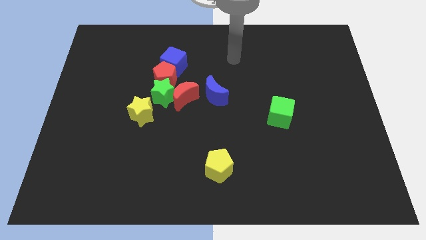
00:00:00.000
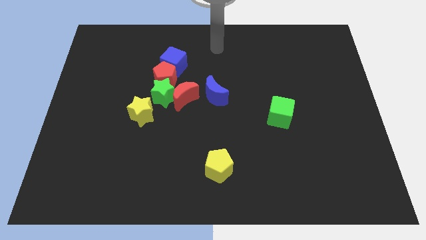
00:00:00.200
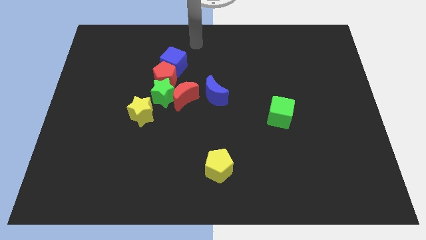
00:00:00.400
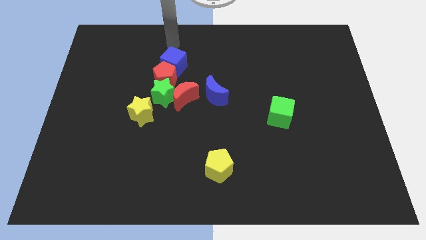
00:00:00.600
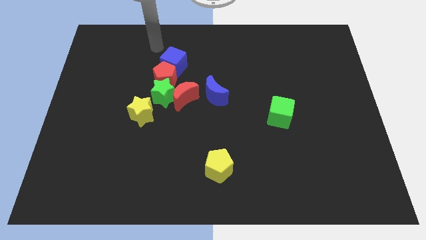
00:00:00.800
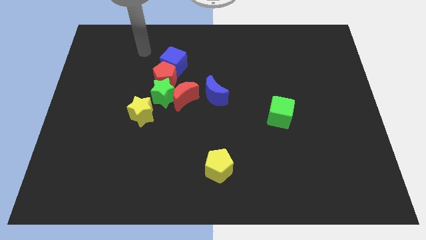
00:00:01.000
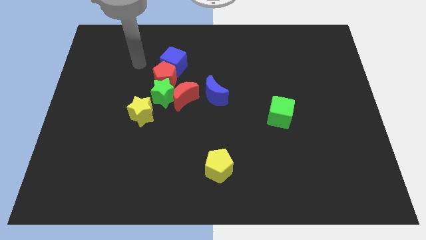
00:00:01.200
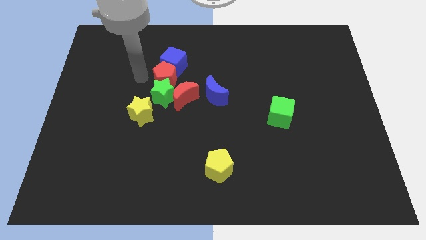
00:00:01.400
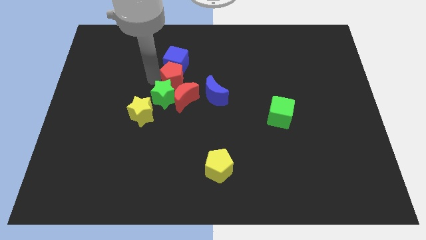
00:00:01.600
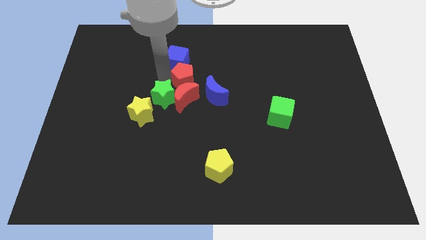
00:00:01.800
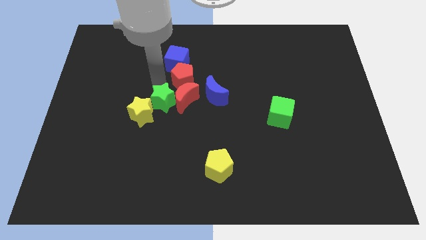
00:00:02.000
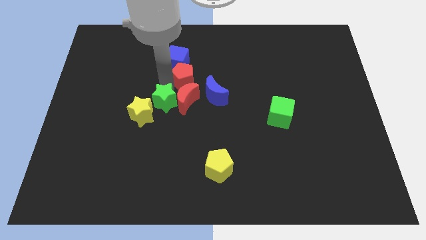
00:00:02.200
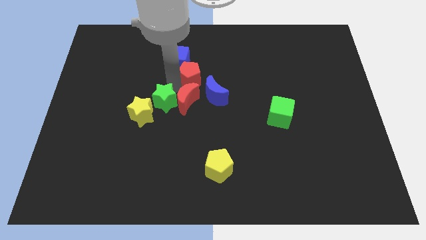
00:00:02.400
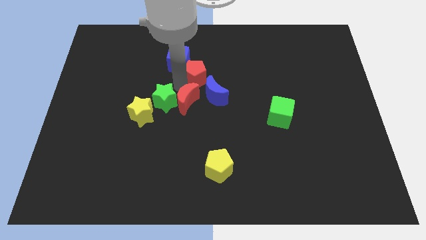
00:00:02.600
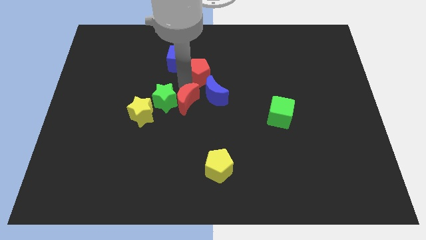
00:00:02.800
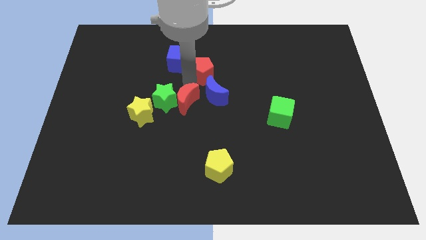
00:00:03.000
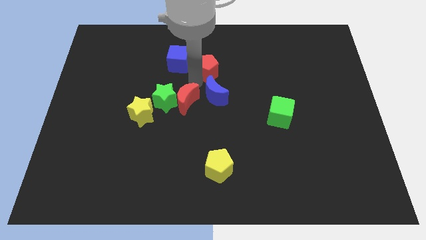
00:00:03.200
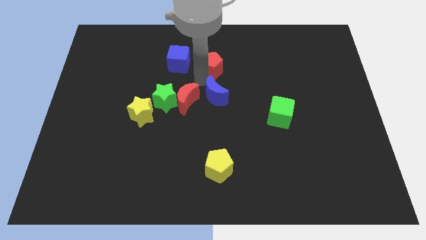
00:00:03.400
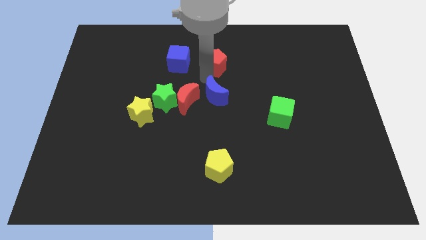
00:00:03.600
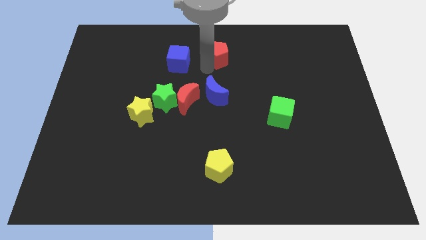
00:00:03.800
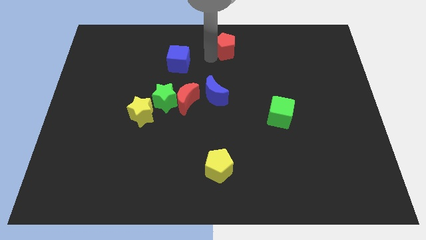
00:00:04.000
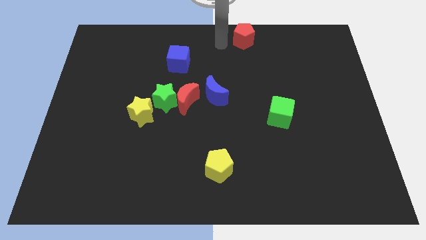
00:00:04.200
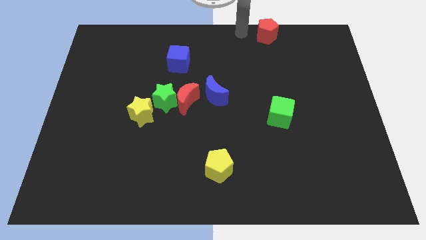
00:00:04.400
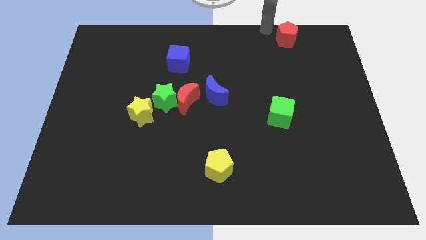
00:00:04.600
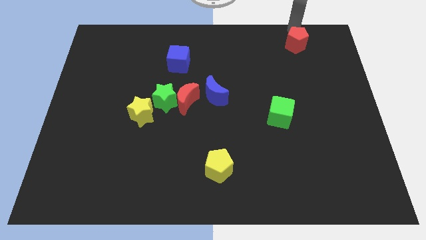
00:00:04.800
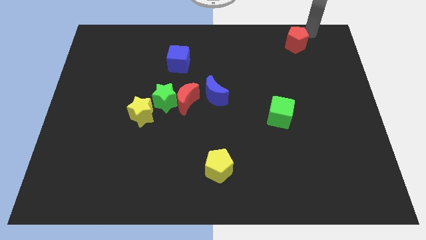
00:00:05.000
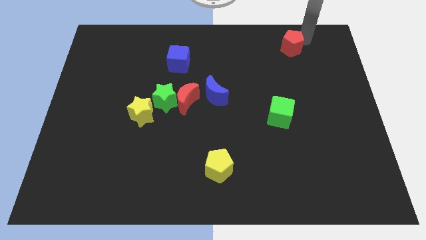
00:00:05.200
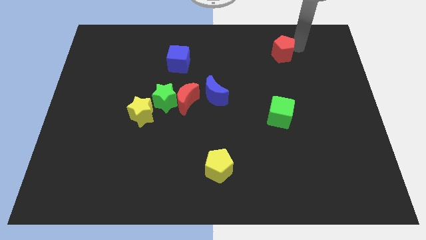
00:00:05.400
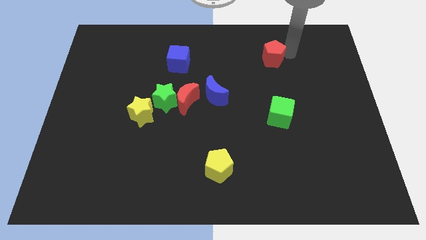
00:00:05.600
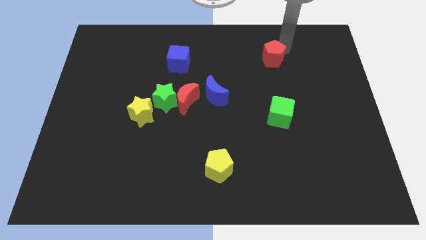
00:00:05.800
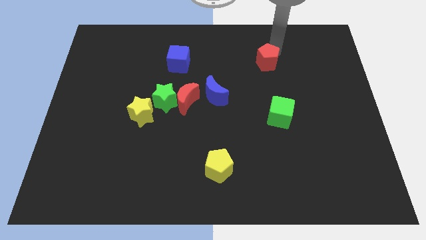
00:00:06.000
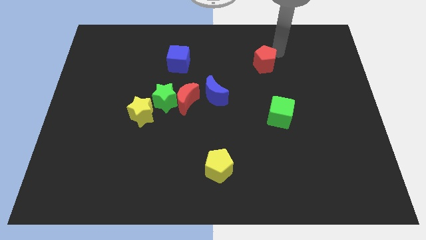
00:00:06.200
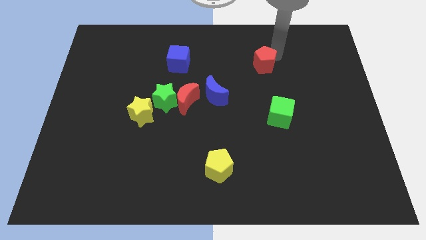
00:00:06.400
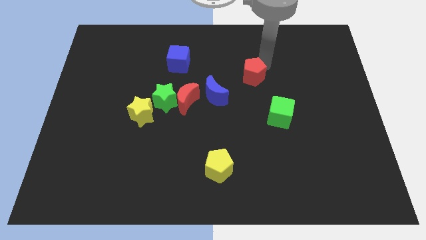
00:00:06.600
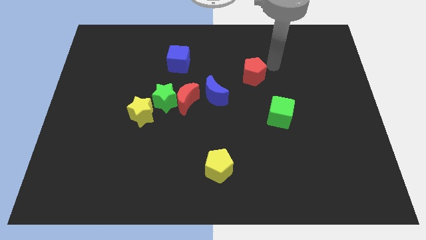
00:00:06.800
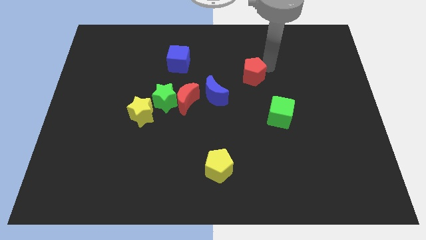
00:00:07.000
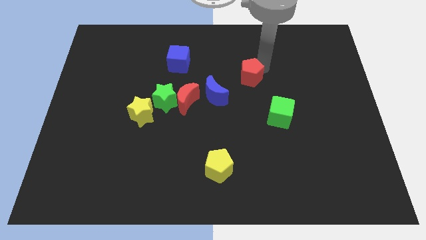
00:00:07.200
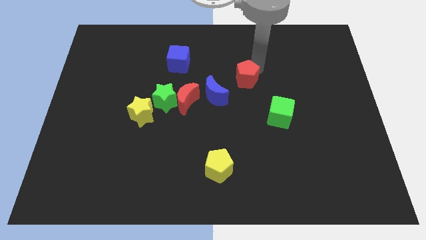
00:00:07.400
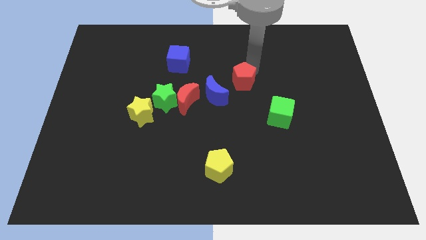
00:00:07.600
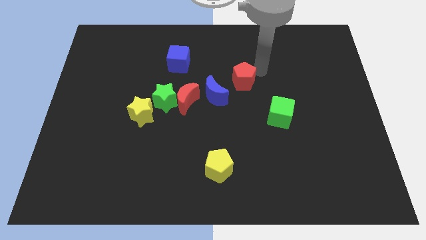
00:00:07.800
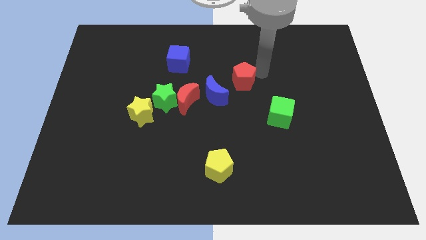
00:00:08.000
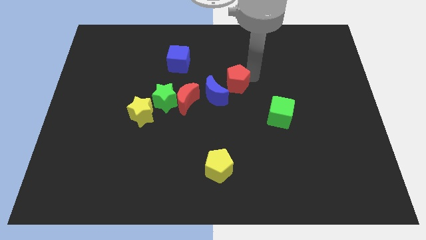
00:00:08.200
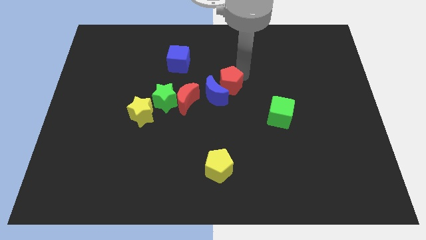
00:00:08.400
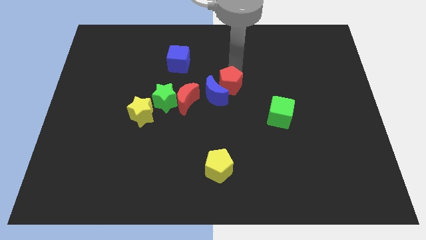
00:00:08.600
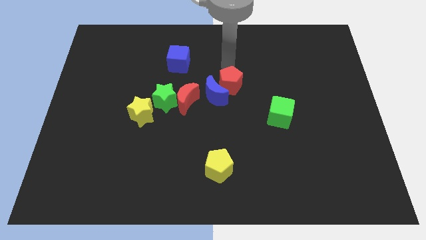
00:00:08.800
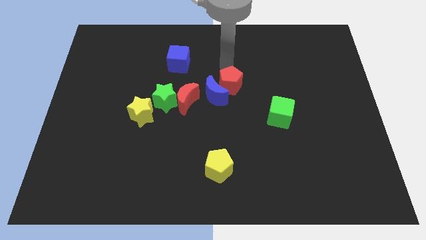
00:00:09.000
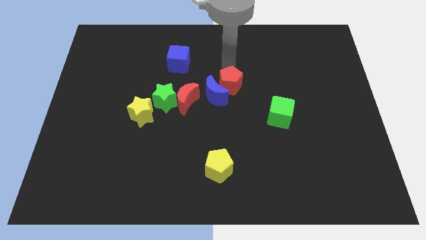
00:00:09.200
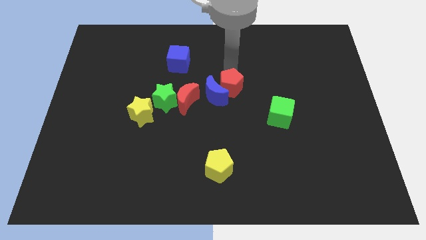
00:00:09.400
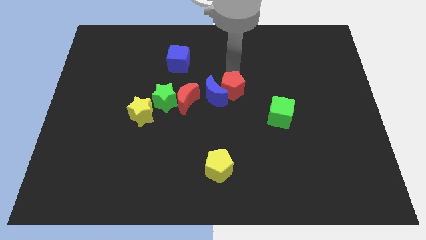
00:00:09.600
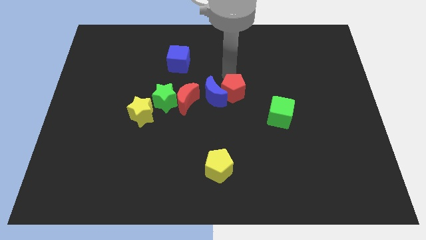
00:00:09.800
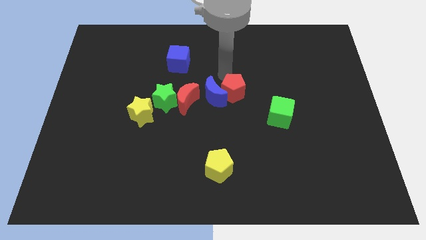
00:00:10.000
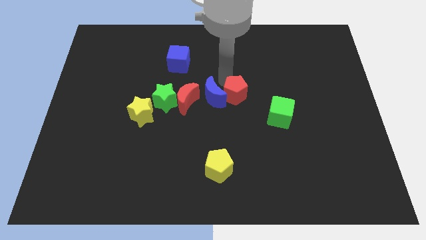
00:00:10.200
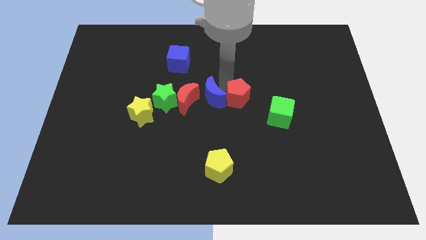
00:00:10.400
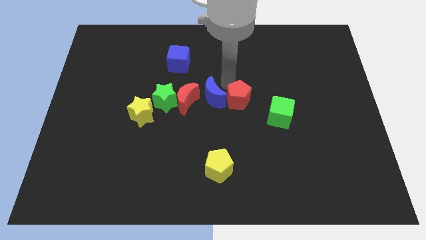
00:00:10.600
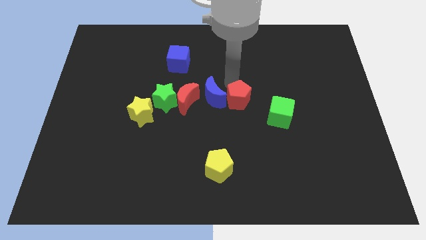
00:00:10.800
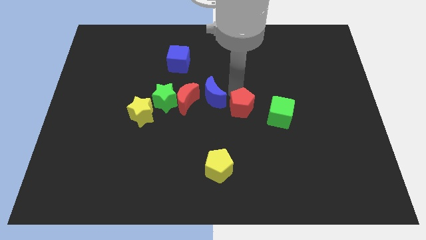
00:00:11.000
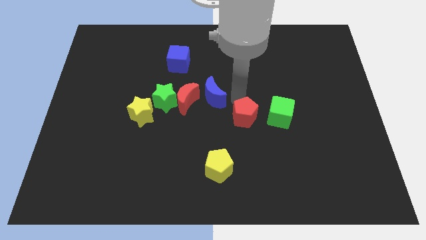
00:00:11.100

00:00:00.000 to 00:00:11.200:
slide the red pentagon downwards and to the right

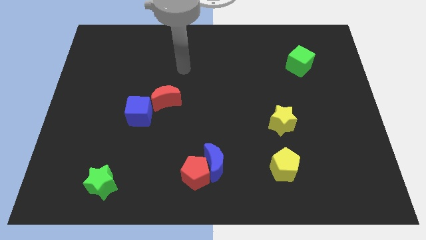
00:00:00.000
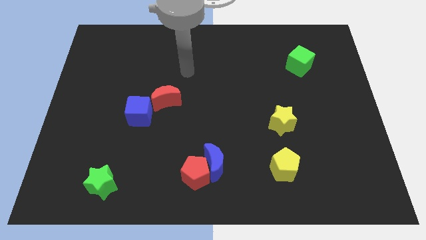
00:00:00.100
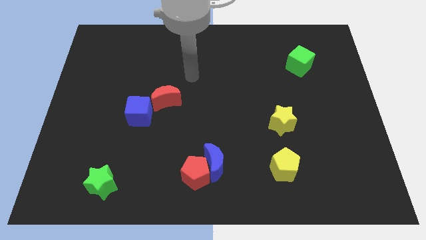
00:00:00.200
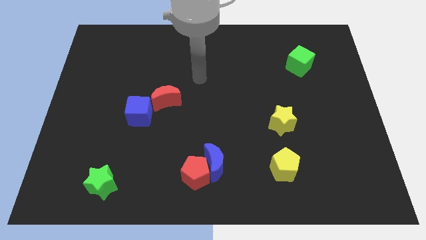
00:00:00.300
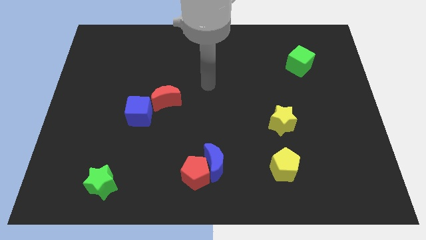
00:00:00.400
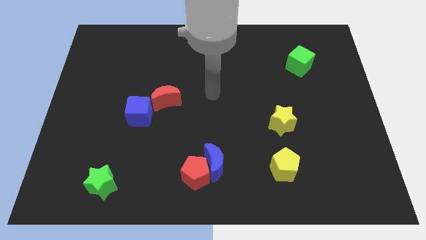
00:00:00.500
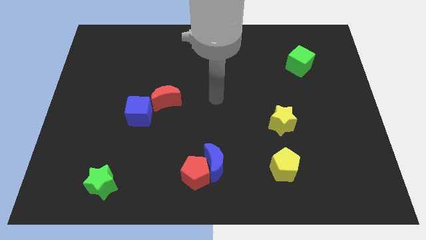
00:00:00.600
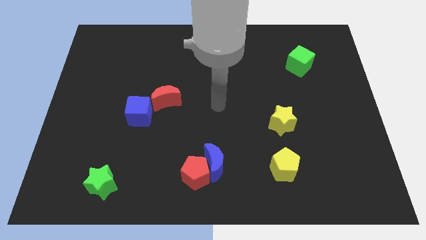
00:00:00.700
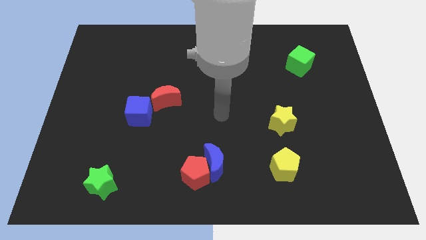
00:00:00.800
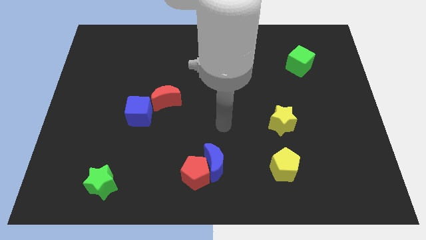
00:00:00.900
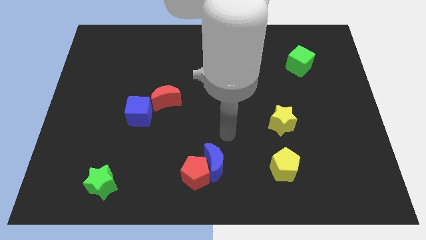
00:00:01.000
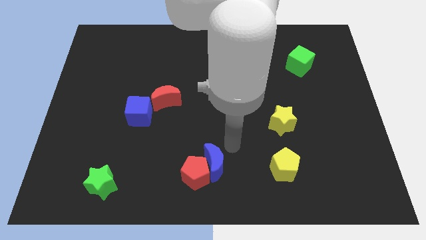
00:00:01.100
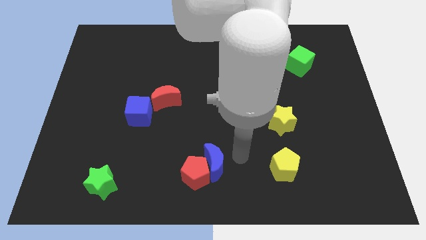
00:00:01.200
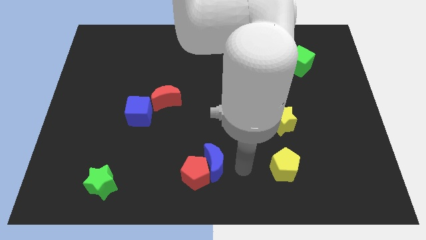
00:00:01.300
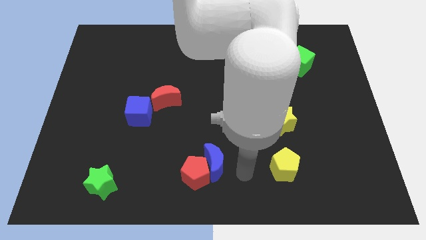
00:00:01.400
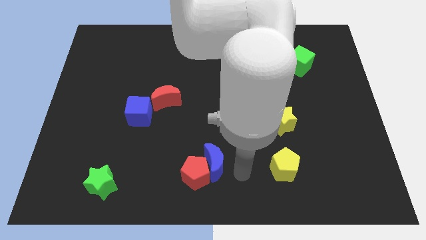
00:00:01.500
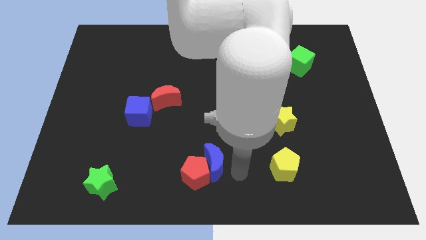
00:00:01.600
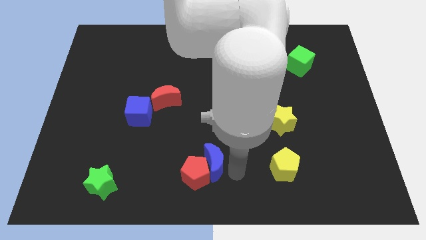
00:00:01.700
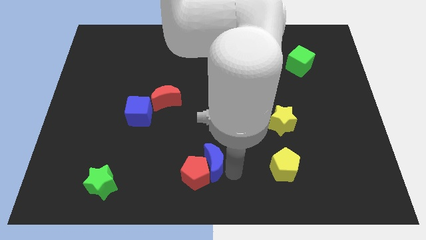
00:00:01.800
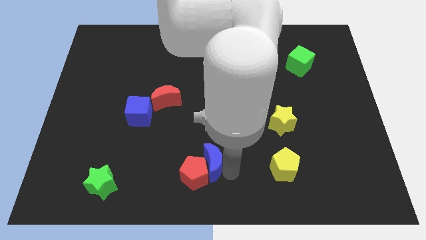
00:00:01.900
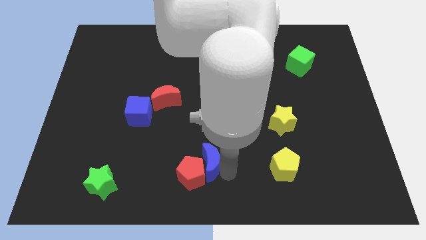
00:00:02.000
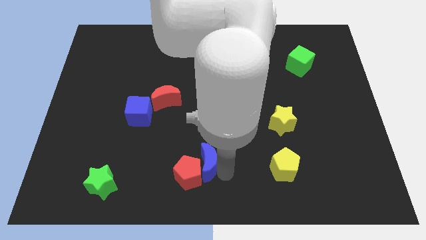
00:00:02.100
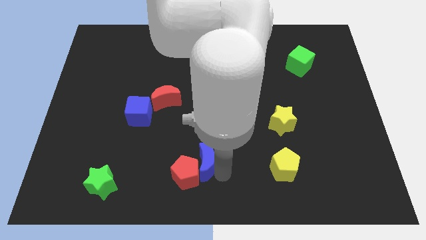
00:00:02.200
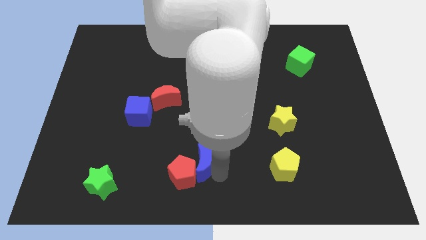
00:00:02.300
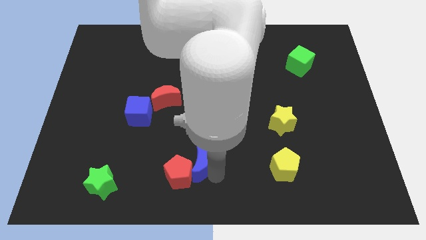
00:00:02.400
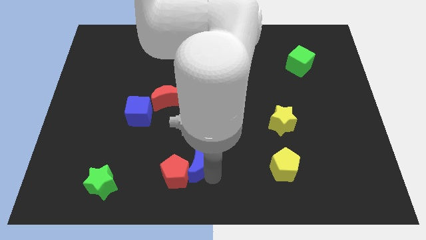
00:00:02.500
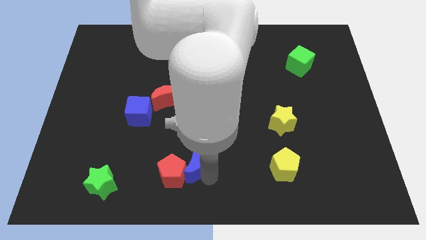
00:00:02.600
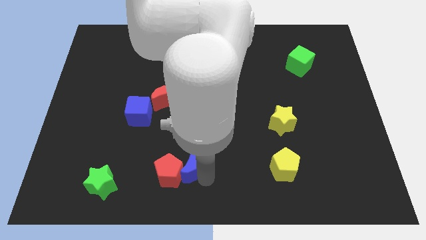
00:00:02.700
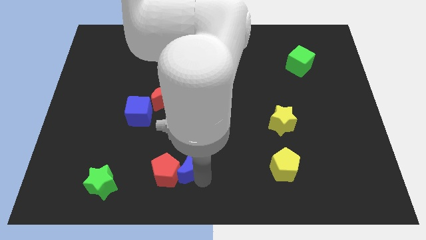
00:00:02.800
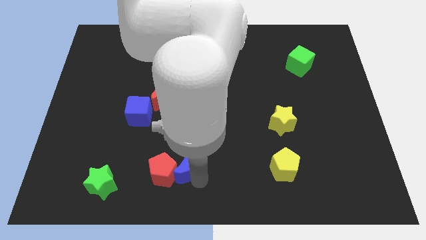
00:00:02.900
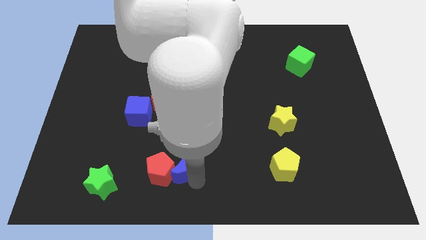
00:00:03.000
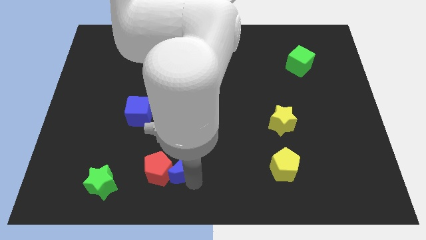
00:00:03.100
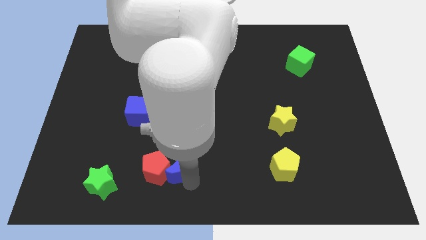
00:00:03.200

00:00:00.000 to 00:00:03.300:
push the blue moon to the left somewhat
